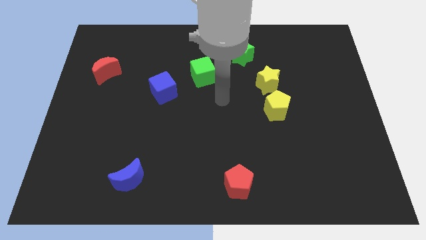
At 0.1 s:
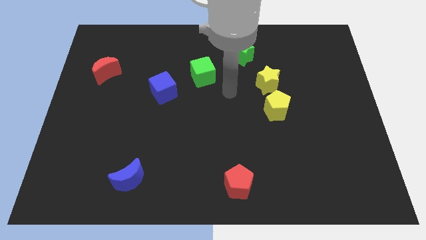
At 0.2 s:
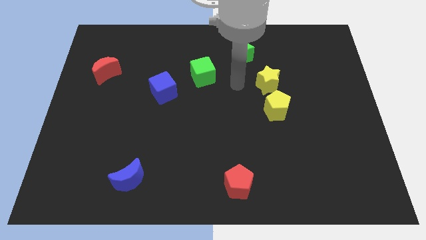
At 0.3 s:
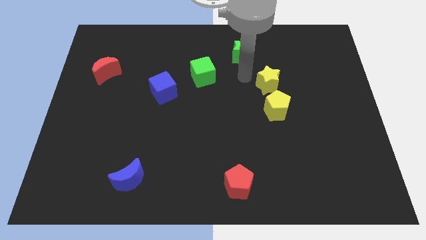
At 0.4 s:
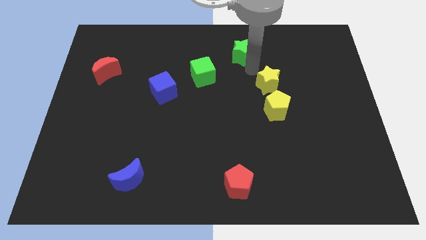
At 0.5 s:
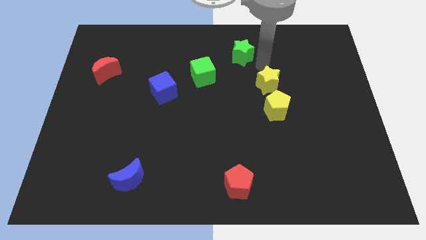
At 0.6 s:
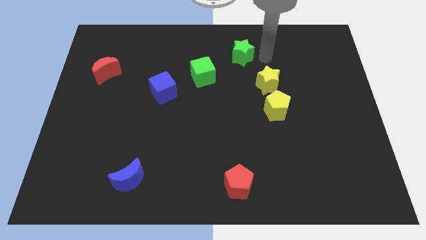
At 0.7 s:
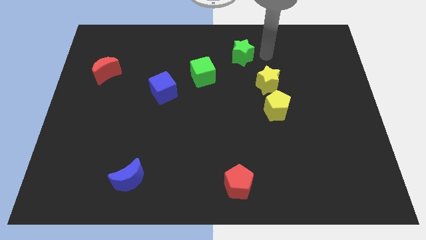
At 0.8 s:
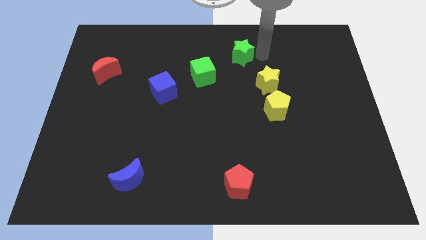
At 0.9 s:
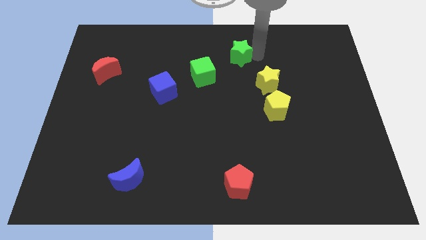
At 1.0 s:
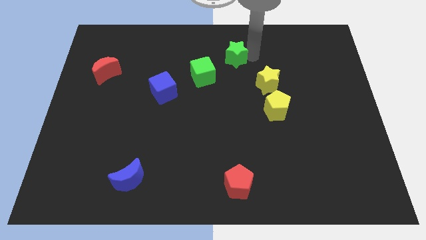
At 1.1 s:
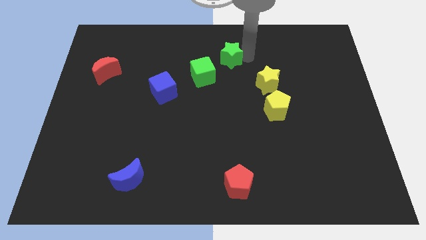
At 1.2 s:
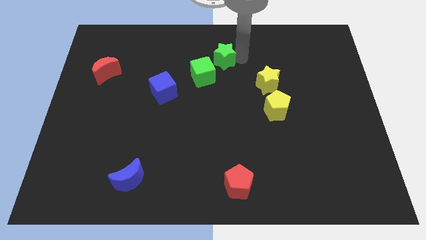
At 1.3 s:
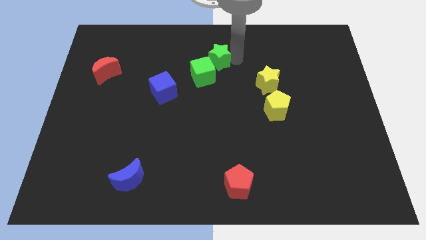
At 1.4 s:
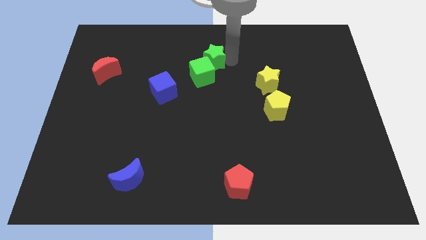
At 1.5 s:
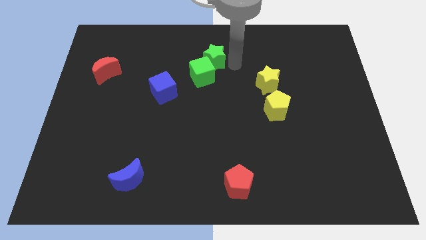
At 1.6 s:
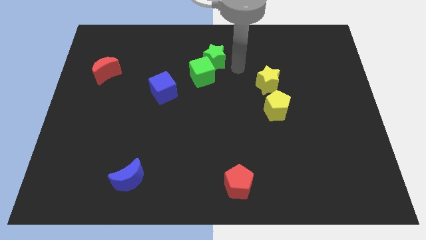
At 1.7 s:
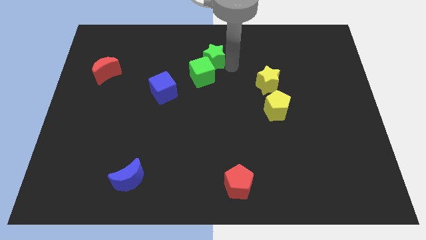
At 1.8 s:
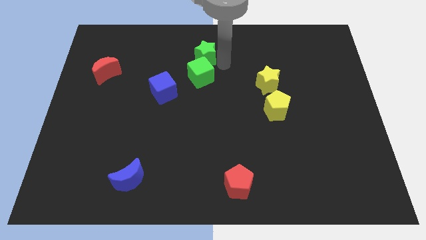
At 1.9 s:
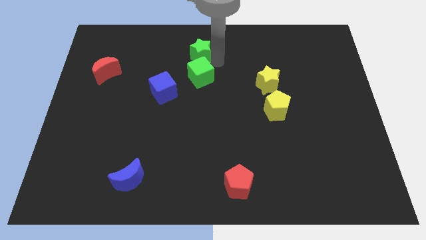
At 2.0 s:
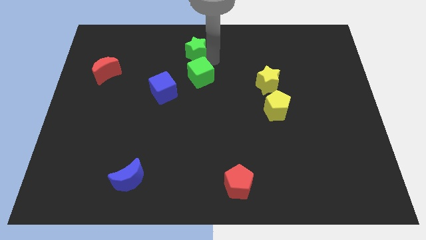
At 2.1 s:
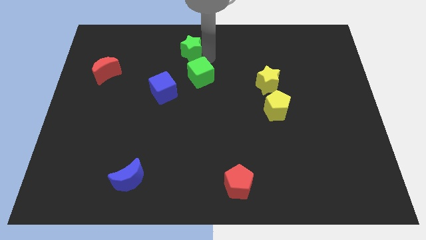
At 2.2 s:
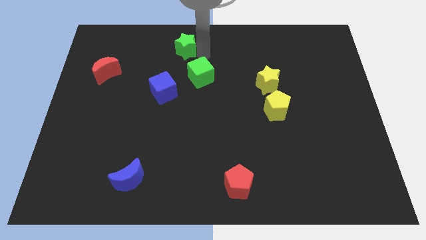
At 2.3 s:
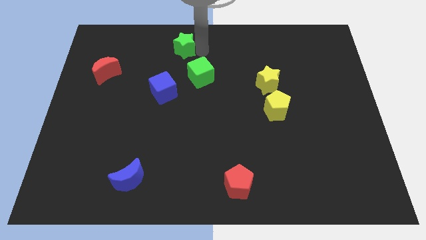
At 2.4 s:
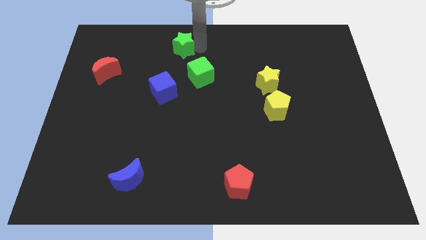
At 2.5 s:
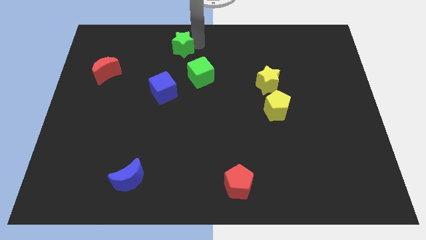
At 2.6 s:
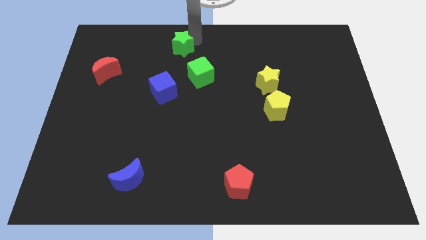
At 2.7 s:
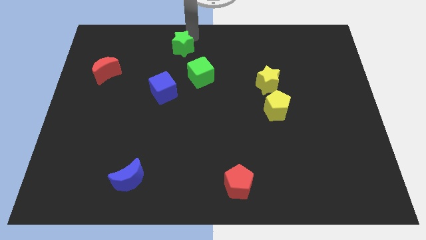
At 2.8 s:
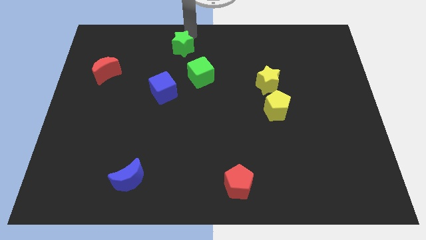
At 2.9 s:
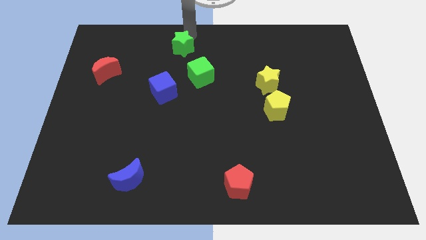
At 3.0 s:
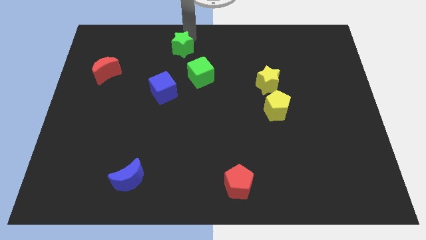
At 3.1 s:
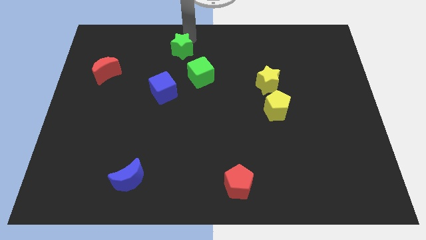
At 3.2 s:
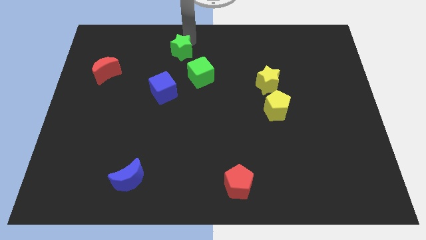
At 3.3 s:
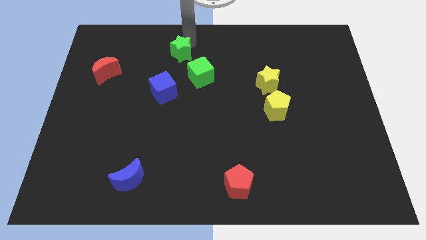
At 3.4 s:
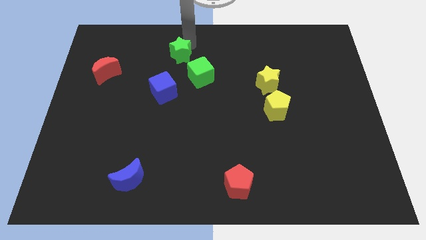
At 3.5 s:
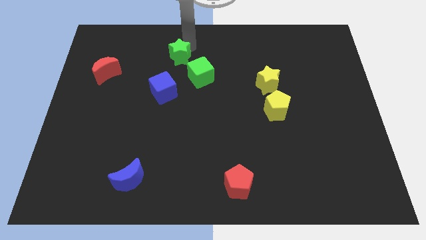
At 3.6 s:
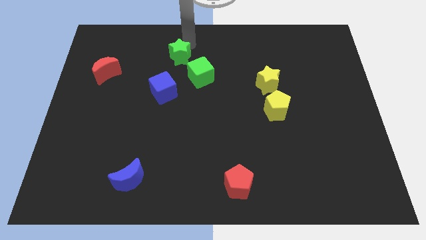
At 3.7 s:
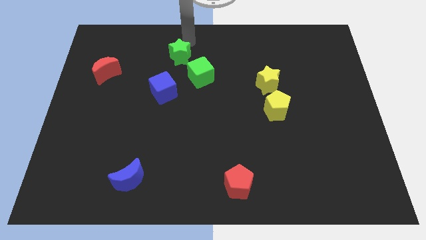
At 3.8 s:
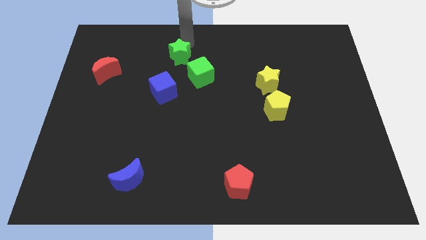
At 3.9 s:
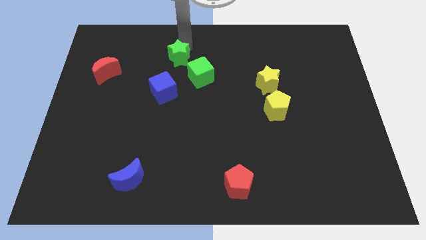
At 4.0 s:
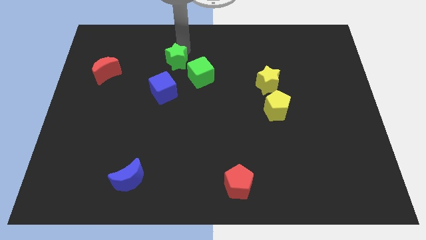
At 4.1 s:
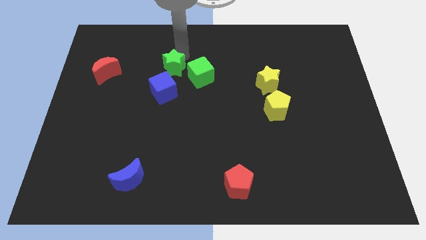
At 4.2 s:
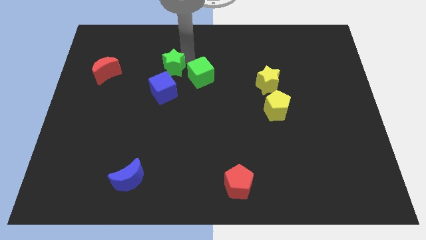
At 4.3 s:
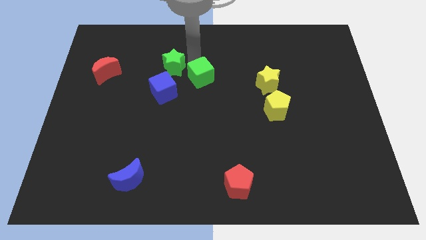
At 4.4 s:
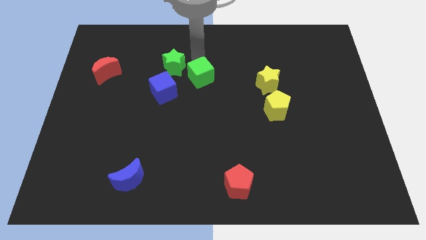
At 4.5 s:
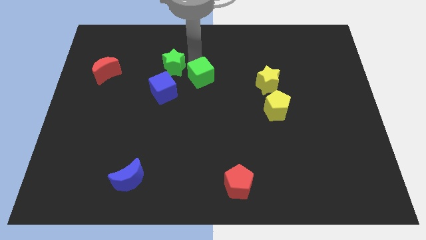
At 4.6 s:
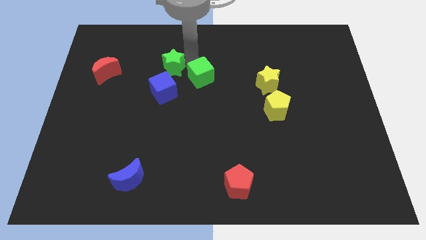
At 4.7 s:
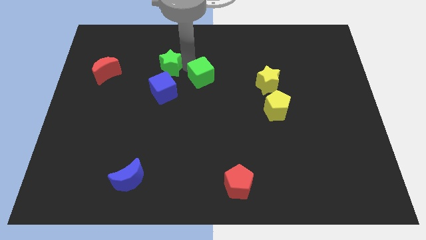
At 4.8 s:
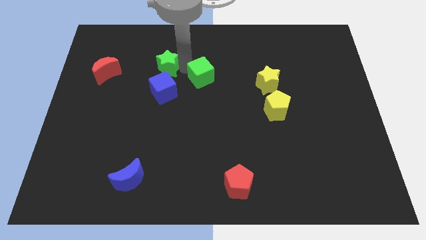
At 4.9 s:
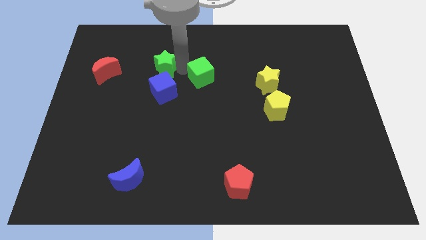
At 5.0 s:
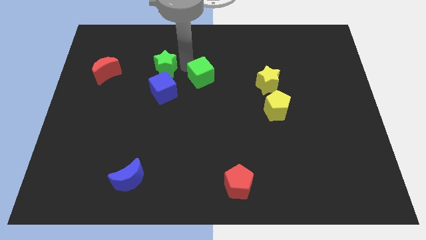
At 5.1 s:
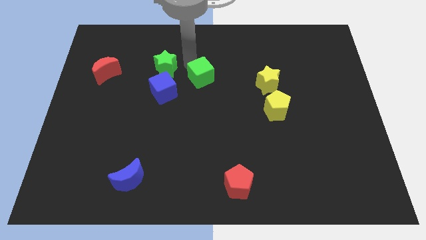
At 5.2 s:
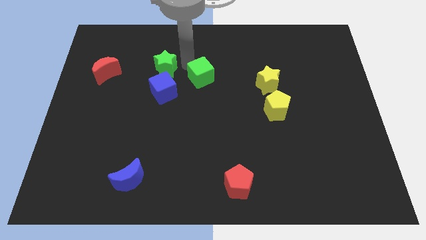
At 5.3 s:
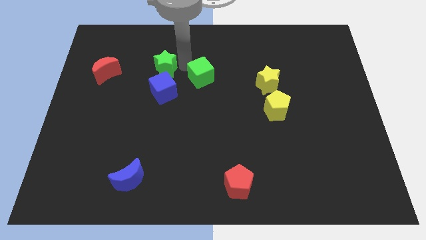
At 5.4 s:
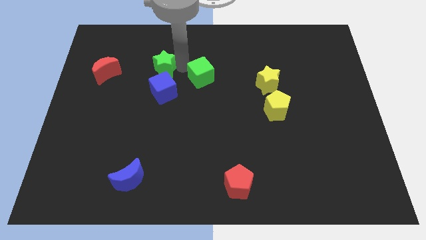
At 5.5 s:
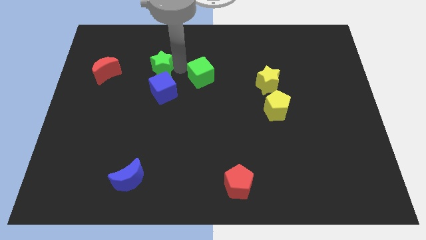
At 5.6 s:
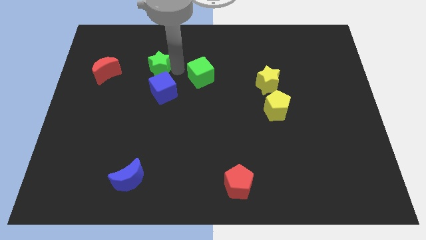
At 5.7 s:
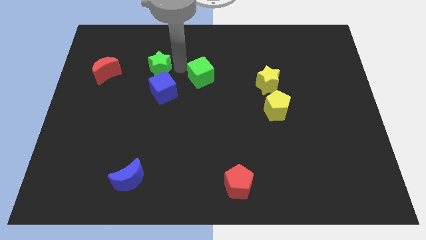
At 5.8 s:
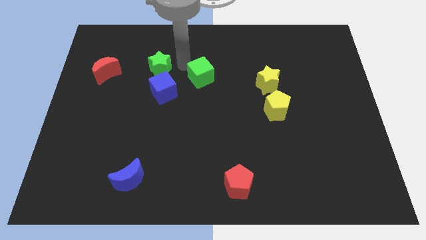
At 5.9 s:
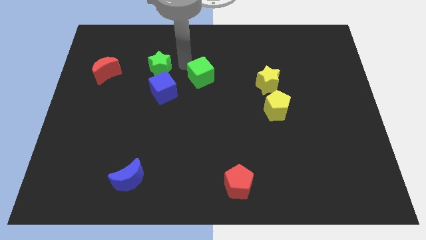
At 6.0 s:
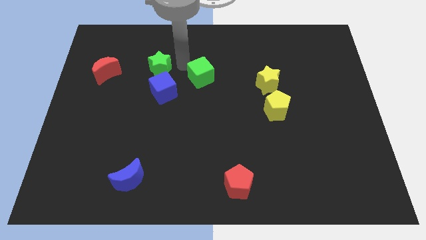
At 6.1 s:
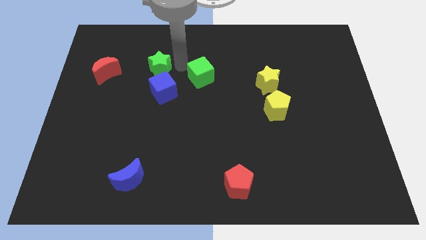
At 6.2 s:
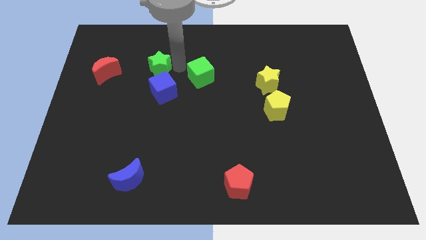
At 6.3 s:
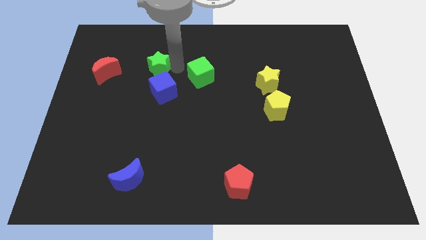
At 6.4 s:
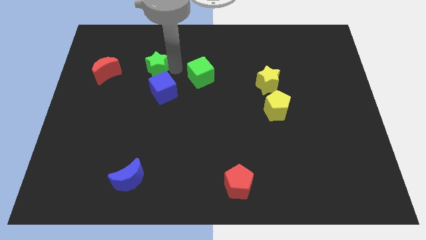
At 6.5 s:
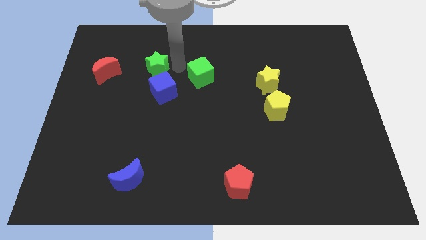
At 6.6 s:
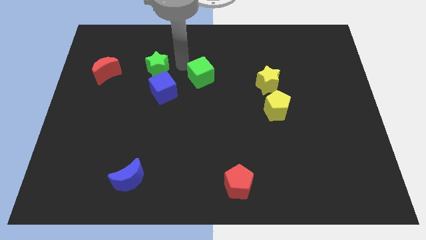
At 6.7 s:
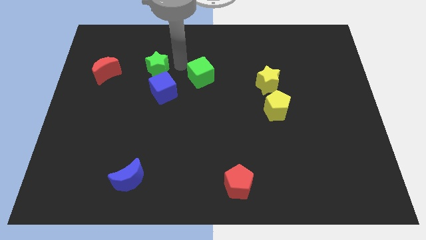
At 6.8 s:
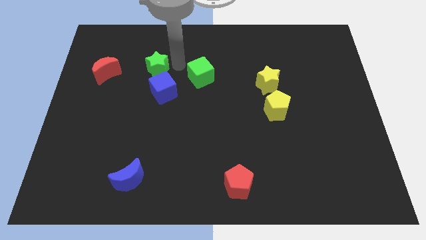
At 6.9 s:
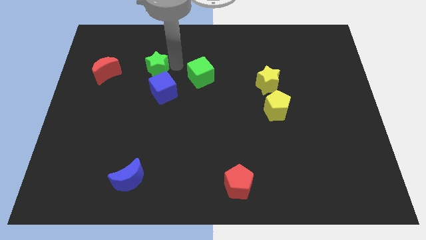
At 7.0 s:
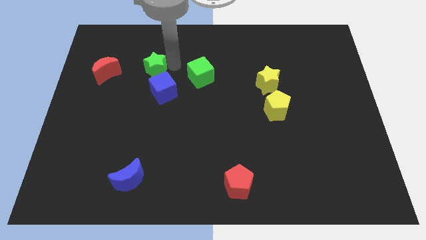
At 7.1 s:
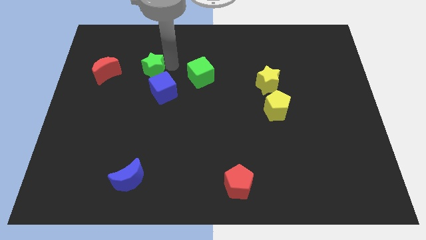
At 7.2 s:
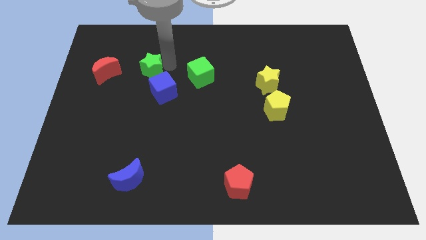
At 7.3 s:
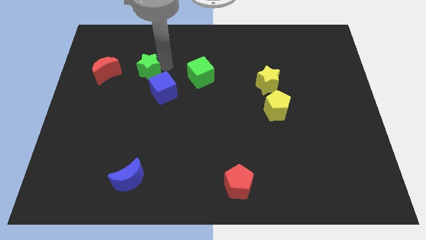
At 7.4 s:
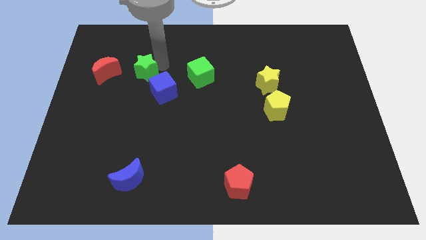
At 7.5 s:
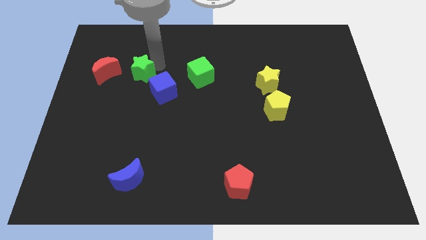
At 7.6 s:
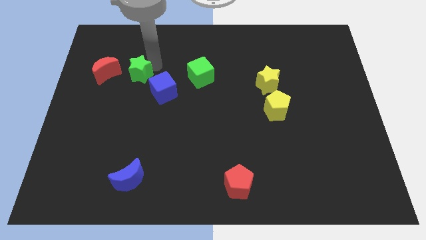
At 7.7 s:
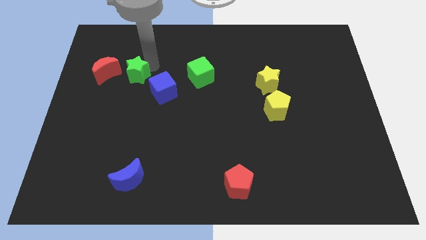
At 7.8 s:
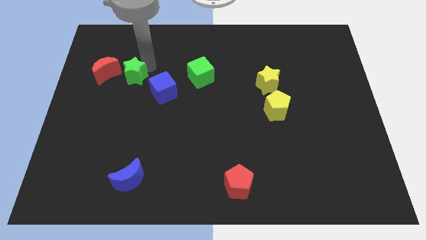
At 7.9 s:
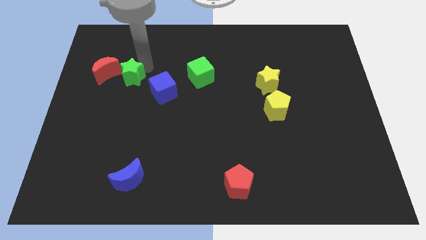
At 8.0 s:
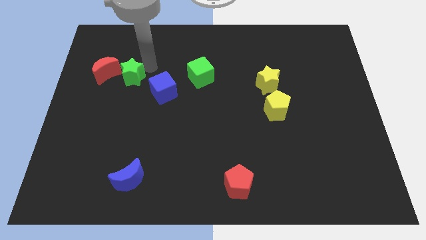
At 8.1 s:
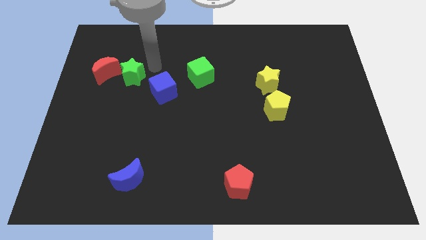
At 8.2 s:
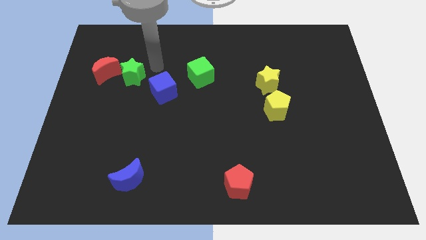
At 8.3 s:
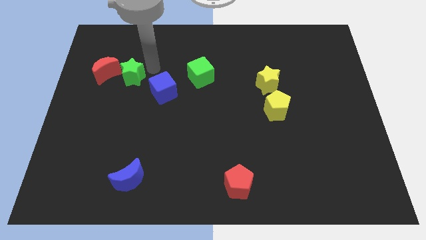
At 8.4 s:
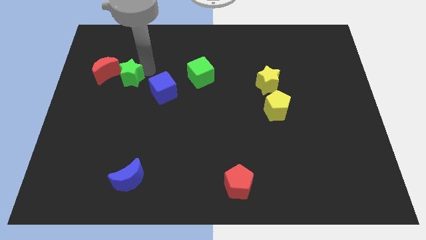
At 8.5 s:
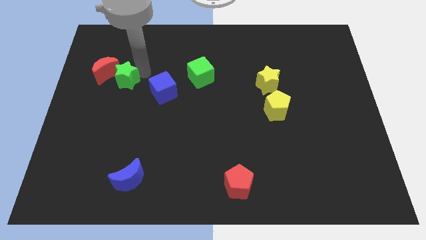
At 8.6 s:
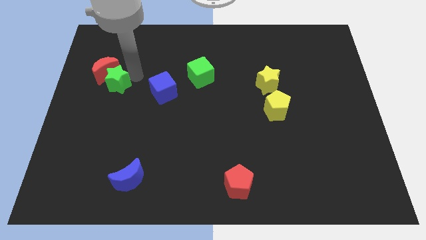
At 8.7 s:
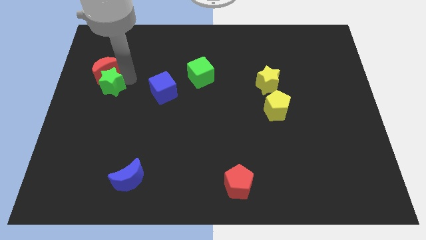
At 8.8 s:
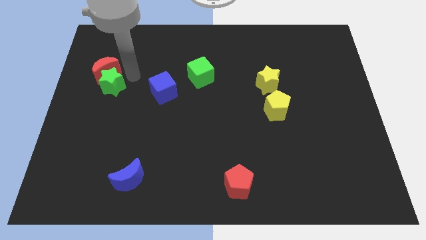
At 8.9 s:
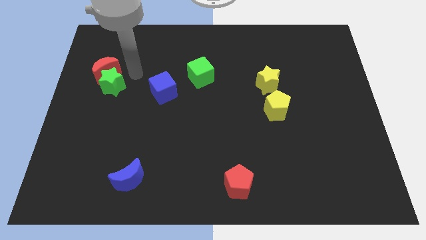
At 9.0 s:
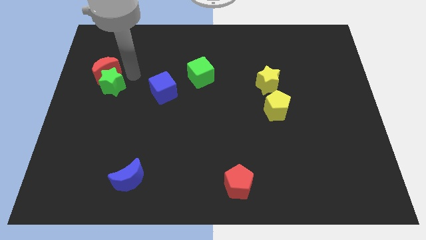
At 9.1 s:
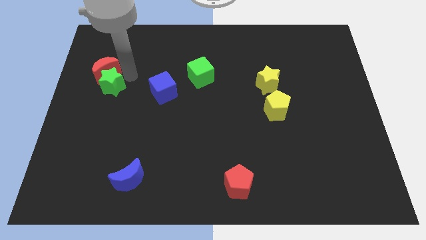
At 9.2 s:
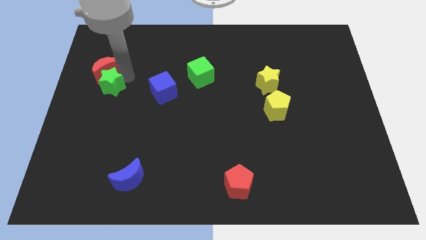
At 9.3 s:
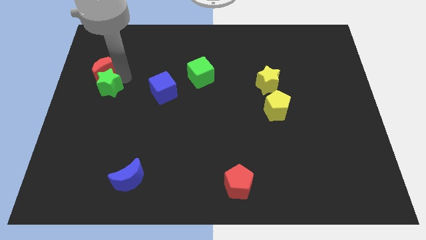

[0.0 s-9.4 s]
put the green star to the center left
